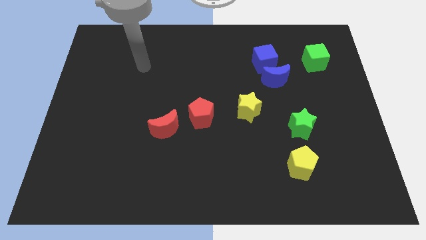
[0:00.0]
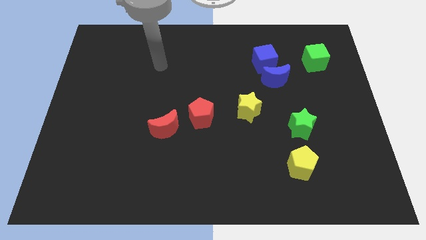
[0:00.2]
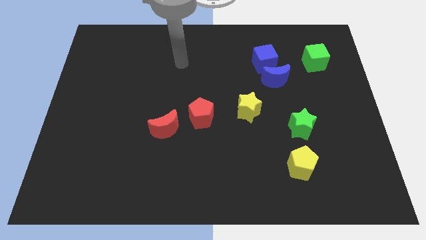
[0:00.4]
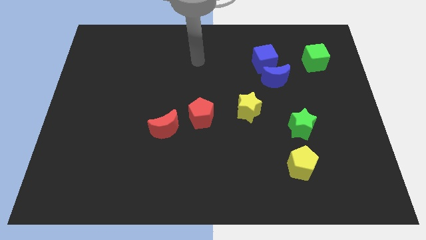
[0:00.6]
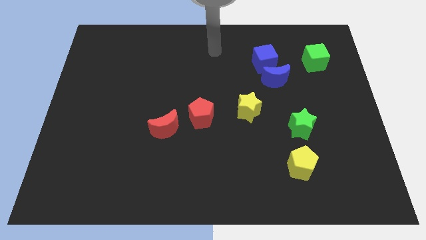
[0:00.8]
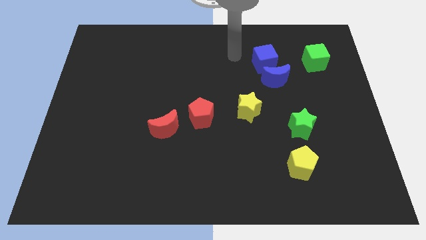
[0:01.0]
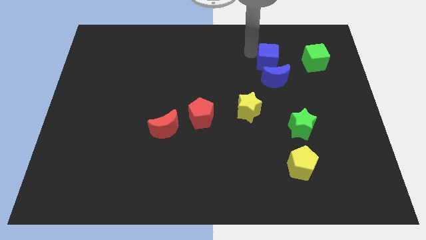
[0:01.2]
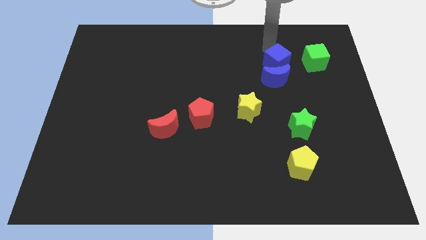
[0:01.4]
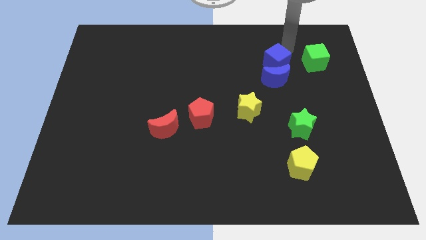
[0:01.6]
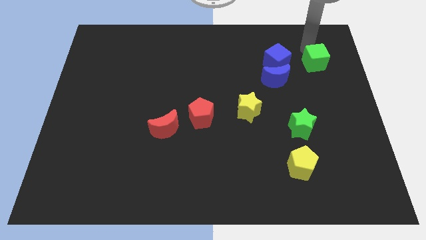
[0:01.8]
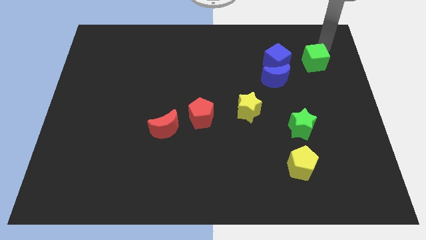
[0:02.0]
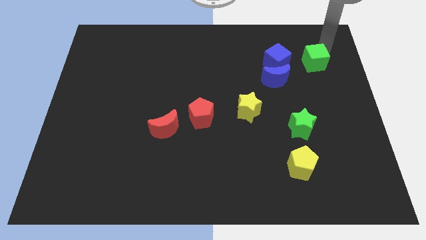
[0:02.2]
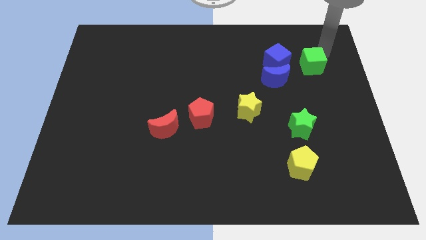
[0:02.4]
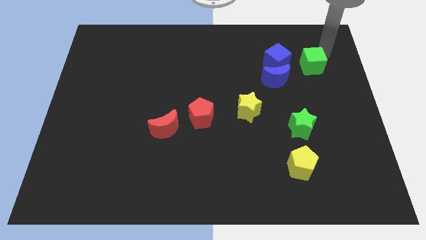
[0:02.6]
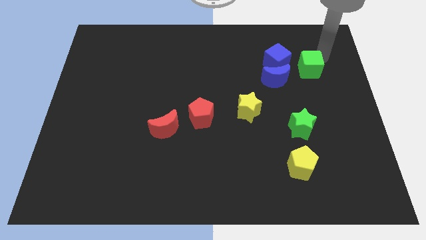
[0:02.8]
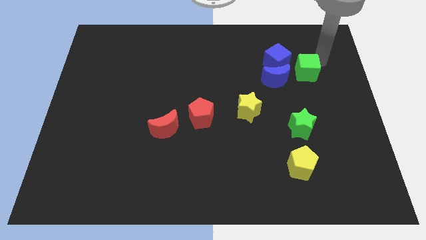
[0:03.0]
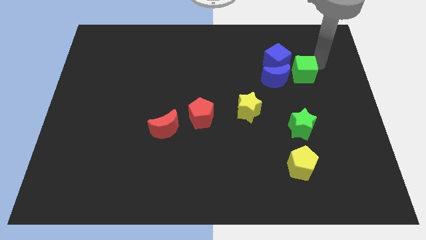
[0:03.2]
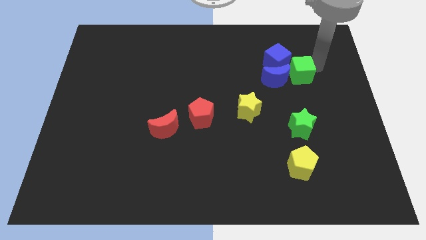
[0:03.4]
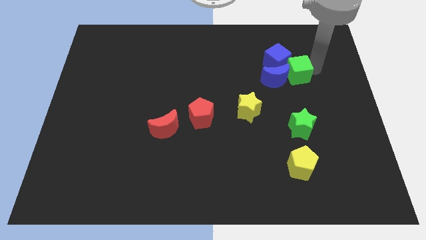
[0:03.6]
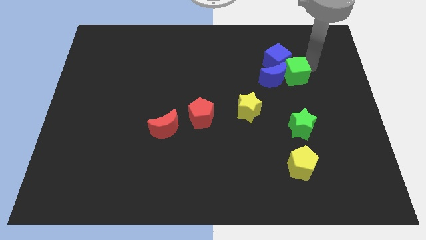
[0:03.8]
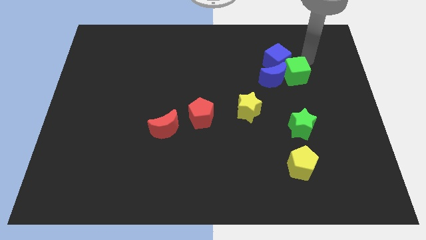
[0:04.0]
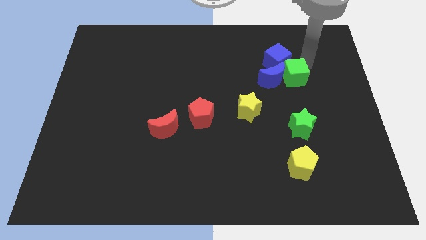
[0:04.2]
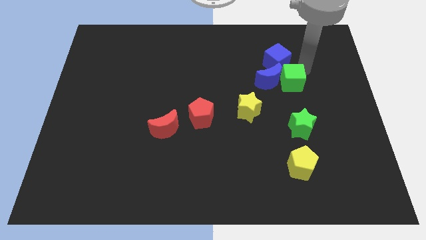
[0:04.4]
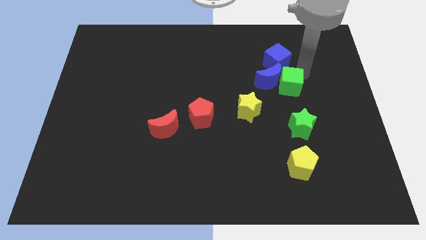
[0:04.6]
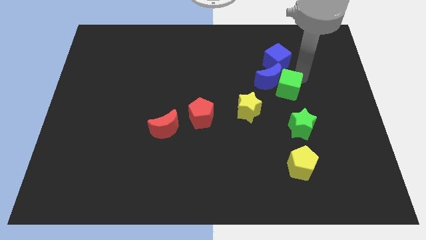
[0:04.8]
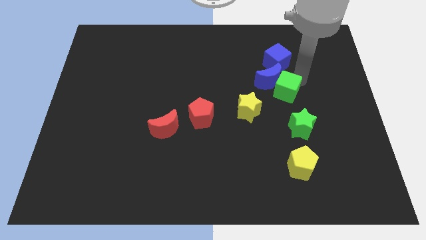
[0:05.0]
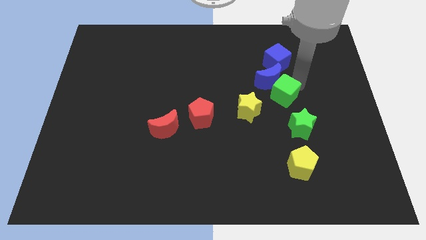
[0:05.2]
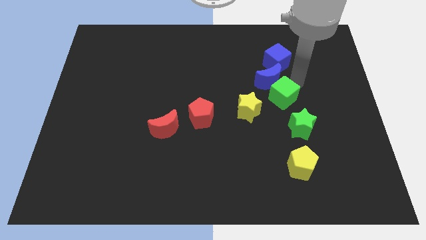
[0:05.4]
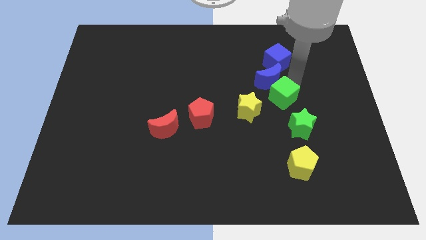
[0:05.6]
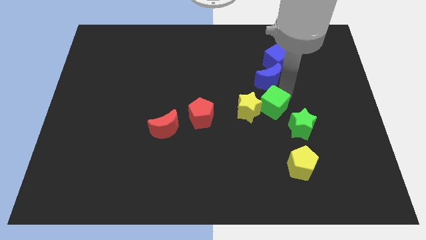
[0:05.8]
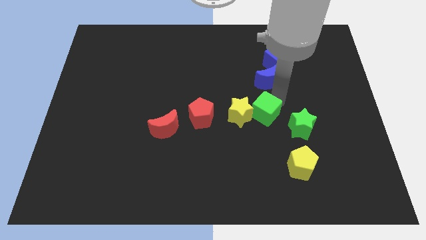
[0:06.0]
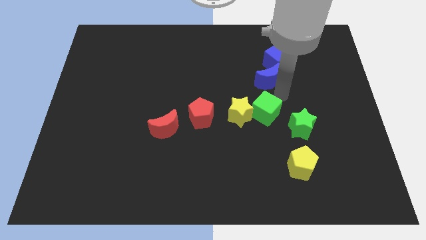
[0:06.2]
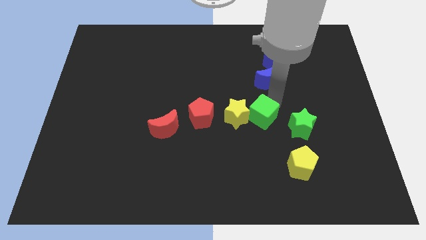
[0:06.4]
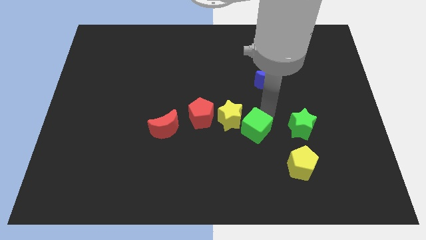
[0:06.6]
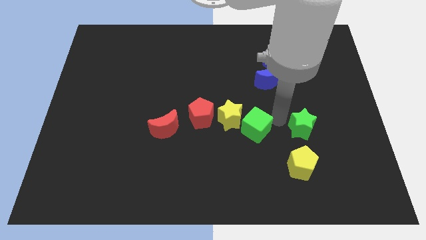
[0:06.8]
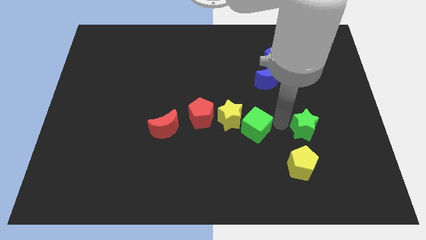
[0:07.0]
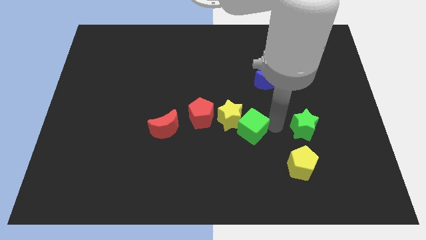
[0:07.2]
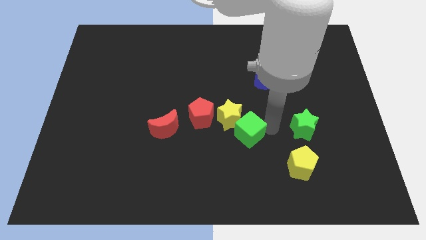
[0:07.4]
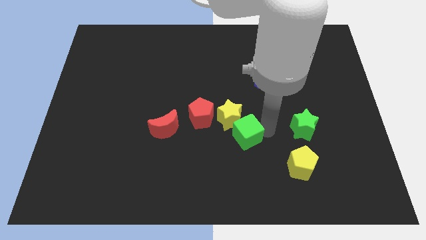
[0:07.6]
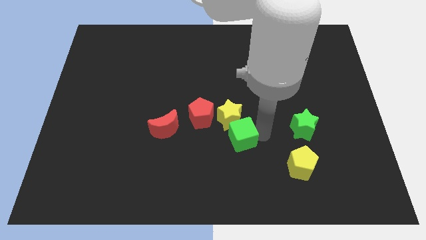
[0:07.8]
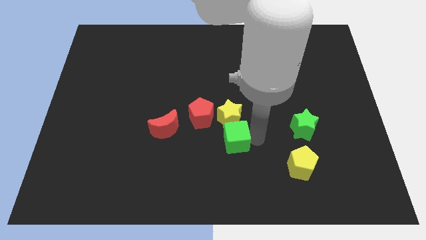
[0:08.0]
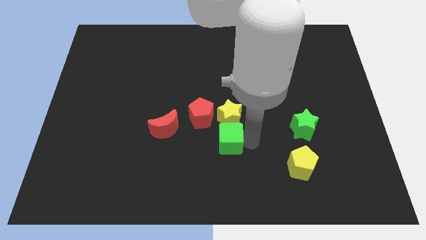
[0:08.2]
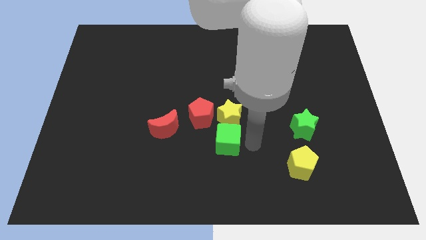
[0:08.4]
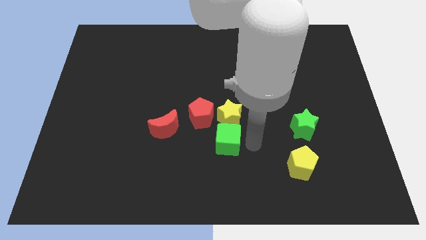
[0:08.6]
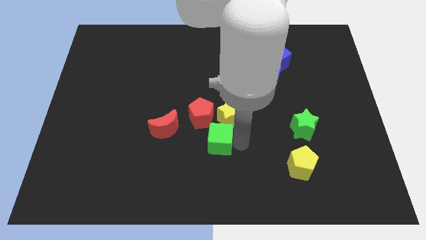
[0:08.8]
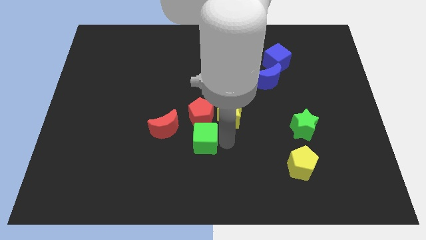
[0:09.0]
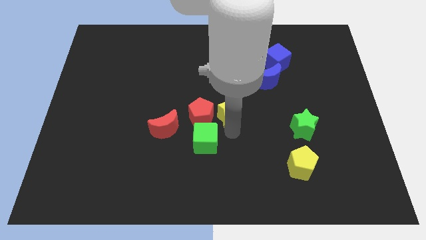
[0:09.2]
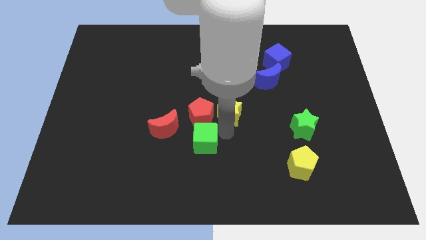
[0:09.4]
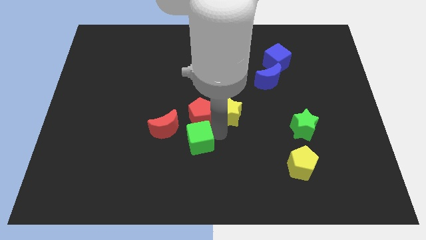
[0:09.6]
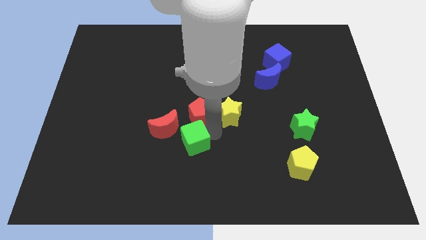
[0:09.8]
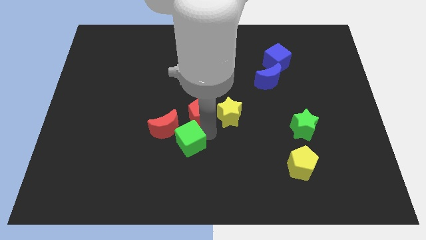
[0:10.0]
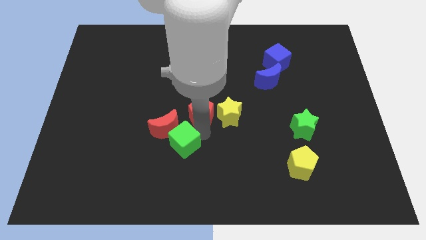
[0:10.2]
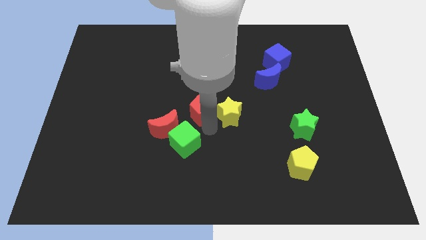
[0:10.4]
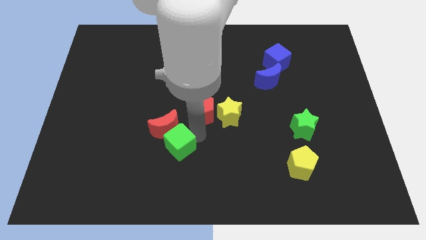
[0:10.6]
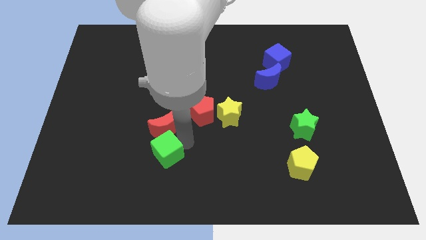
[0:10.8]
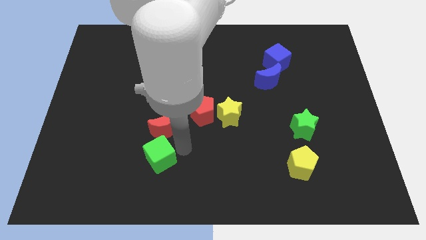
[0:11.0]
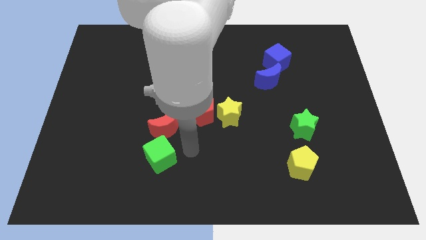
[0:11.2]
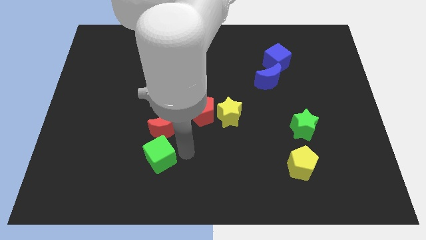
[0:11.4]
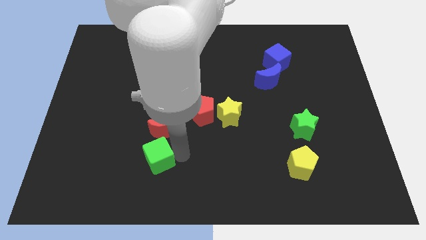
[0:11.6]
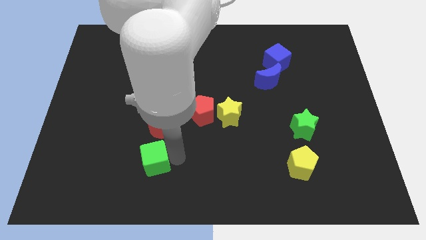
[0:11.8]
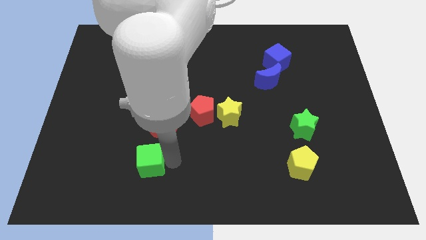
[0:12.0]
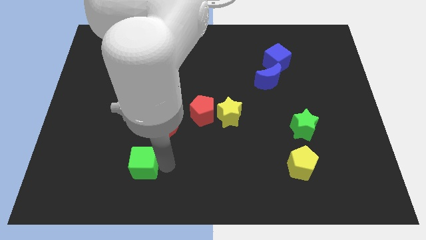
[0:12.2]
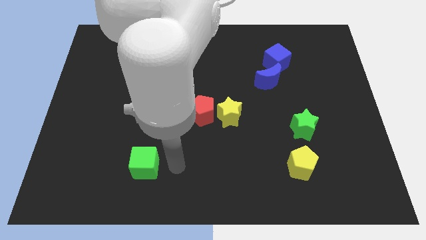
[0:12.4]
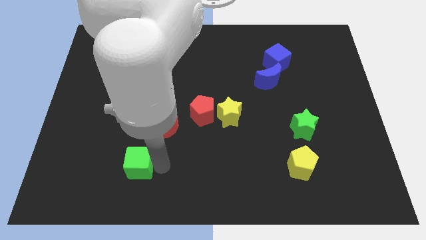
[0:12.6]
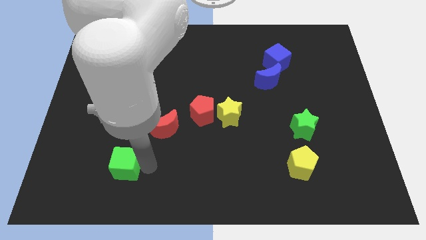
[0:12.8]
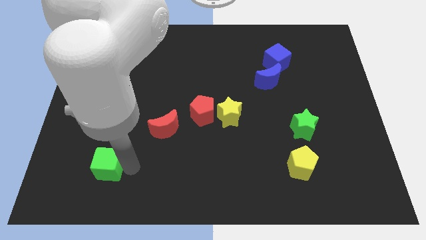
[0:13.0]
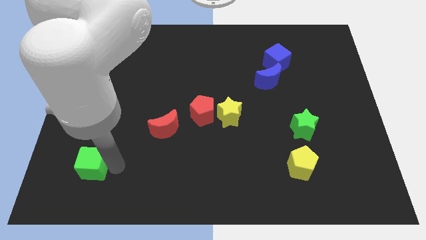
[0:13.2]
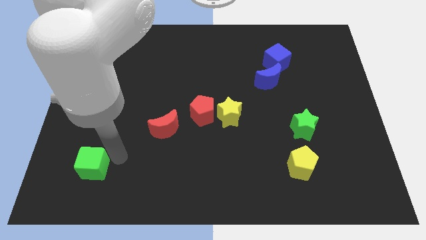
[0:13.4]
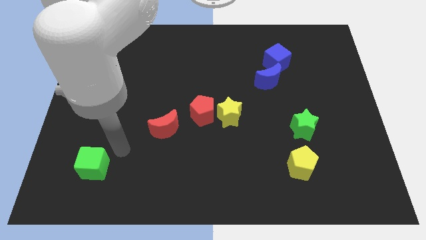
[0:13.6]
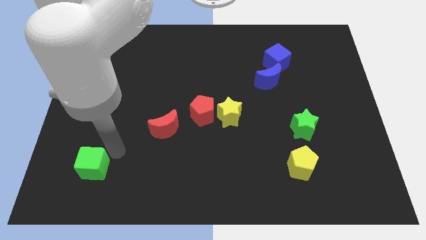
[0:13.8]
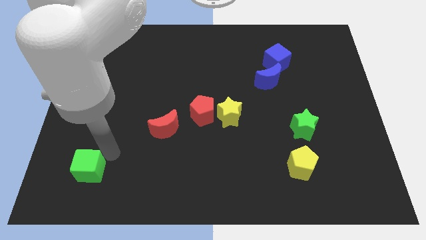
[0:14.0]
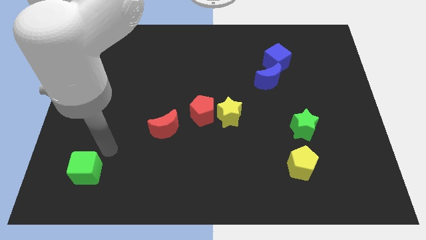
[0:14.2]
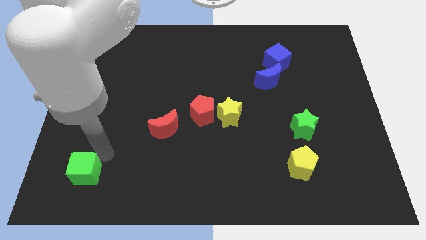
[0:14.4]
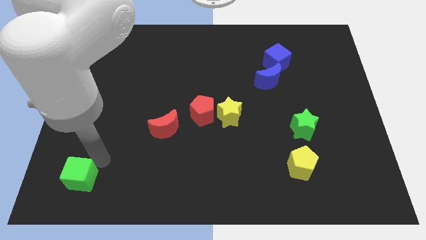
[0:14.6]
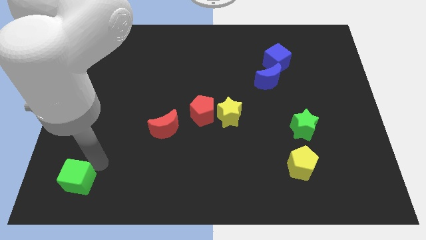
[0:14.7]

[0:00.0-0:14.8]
slide the green cube to the bottom left
